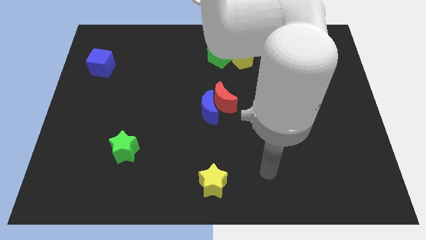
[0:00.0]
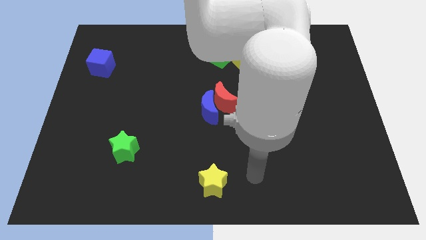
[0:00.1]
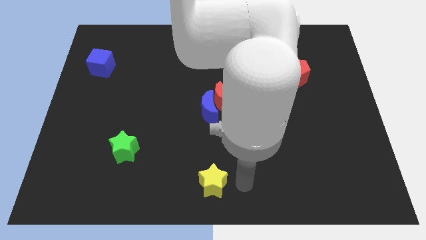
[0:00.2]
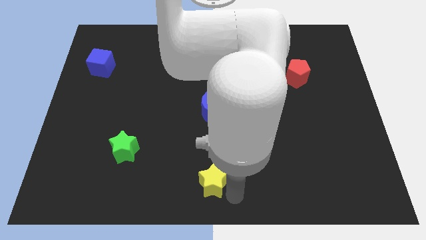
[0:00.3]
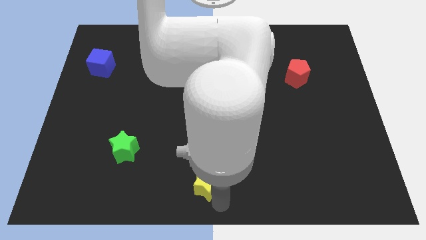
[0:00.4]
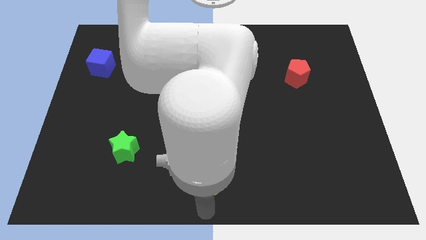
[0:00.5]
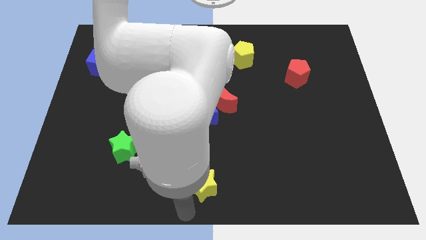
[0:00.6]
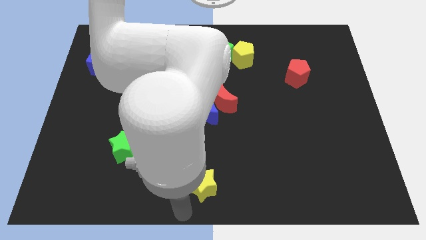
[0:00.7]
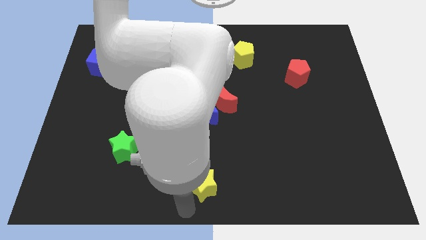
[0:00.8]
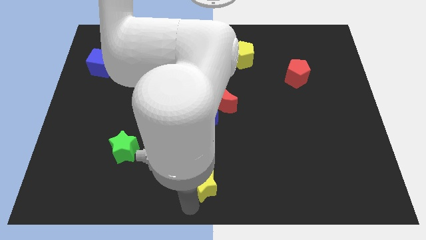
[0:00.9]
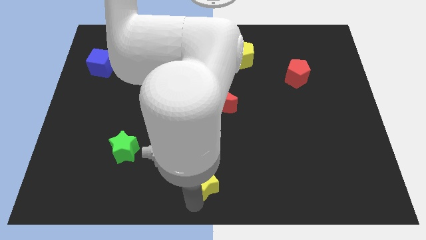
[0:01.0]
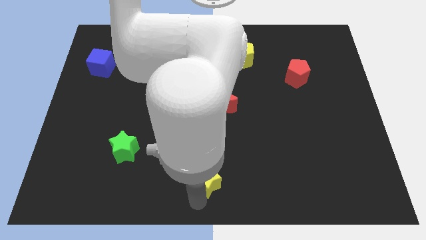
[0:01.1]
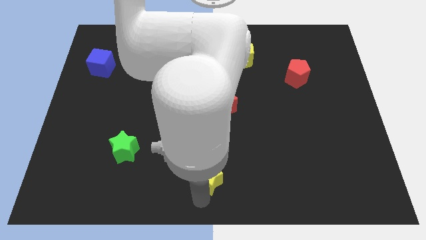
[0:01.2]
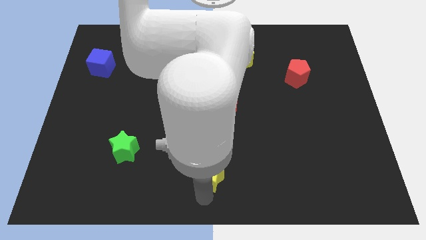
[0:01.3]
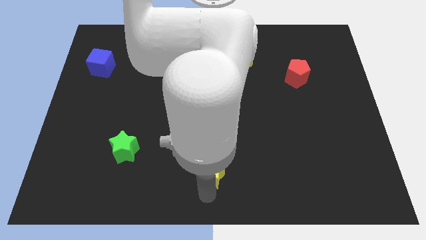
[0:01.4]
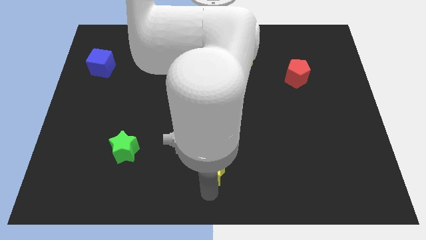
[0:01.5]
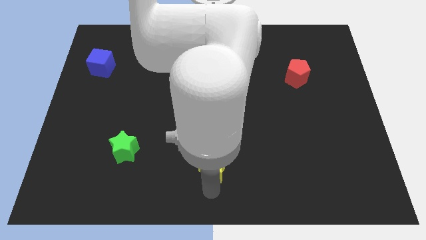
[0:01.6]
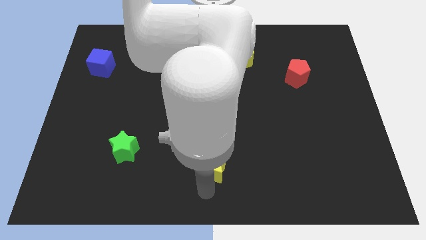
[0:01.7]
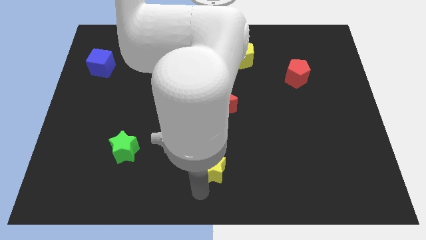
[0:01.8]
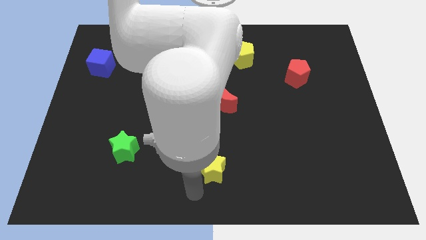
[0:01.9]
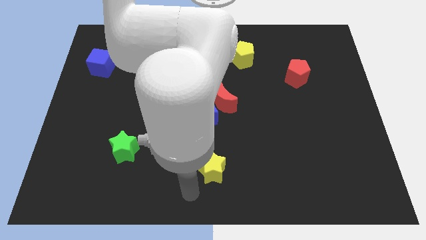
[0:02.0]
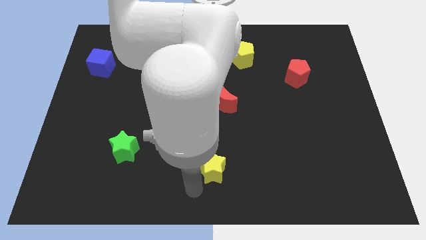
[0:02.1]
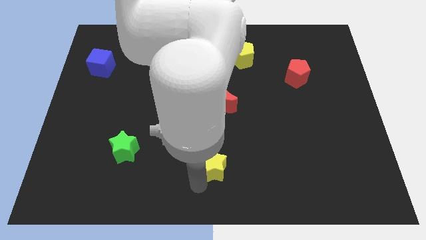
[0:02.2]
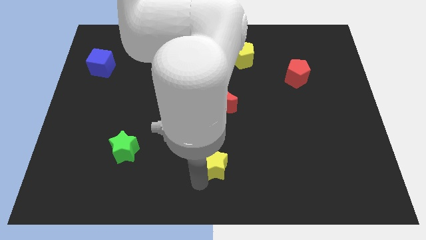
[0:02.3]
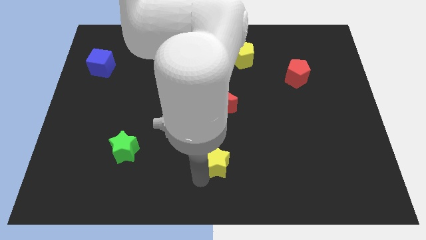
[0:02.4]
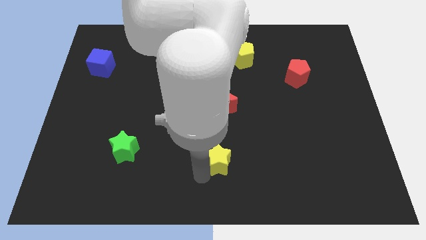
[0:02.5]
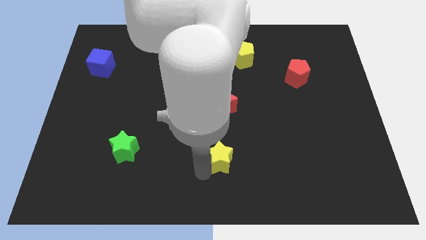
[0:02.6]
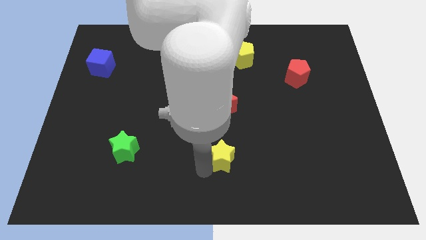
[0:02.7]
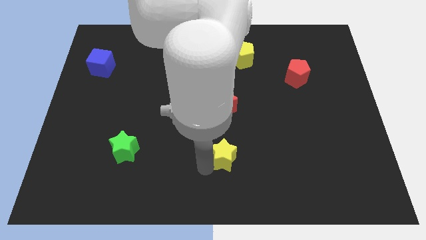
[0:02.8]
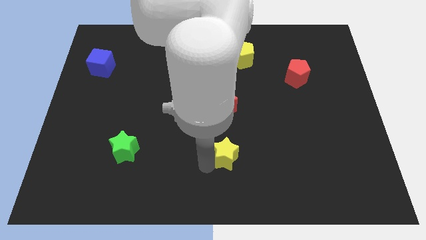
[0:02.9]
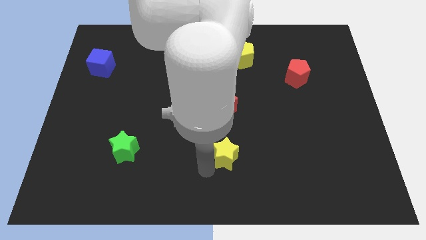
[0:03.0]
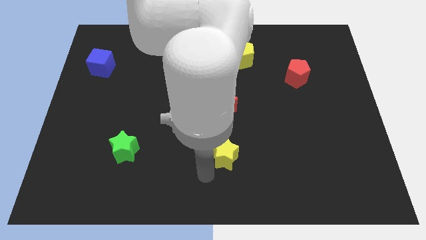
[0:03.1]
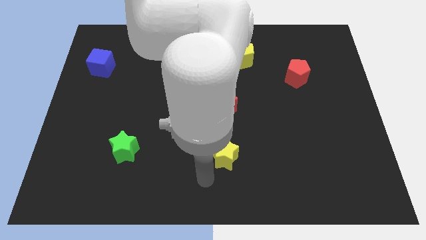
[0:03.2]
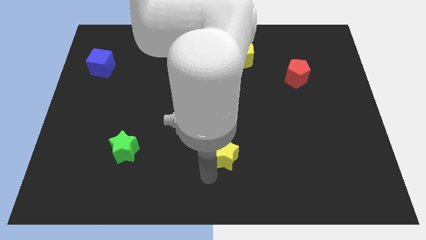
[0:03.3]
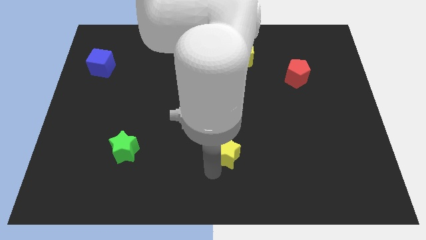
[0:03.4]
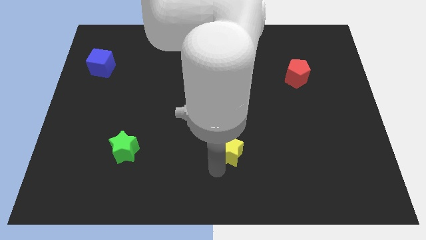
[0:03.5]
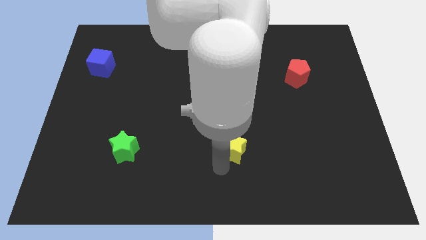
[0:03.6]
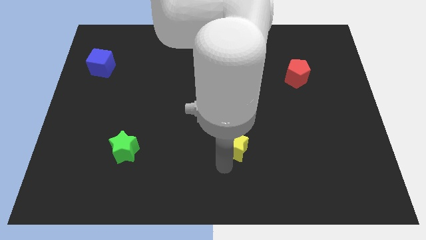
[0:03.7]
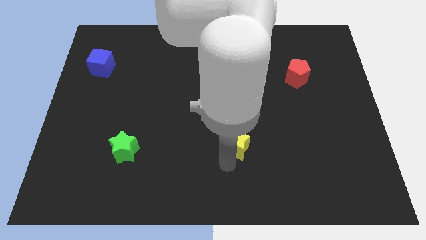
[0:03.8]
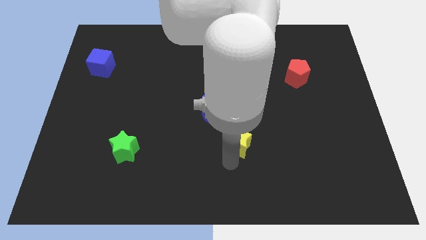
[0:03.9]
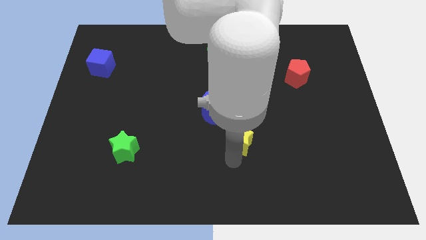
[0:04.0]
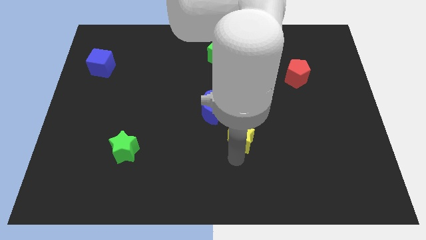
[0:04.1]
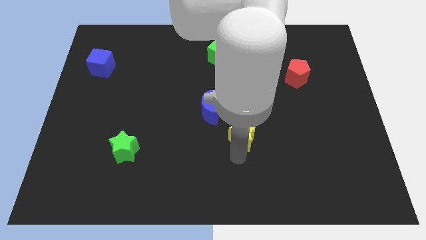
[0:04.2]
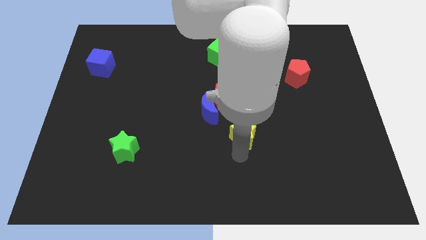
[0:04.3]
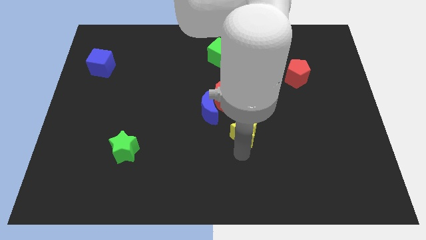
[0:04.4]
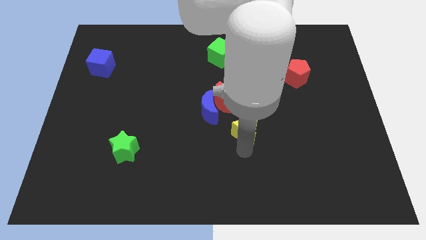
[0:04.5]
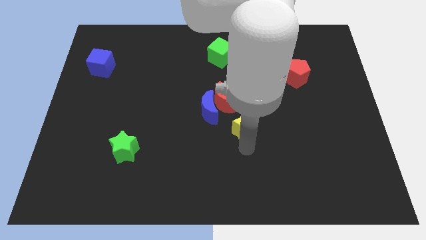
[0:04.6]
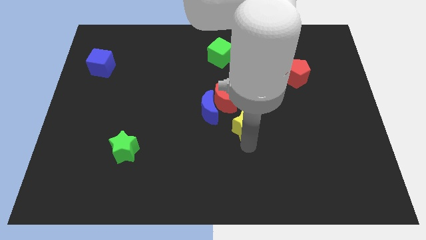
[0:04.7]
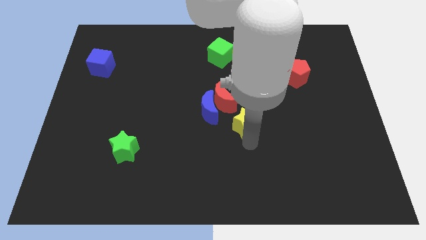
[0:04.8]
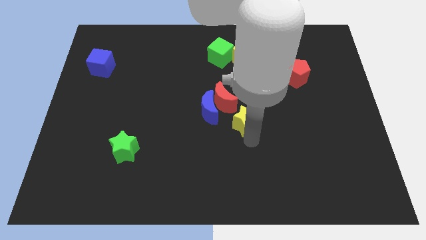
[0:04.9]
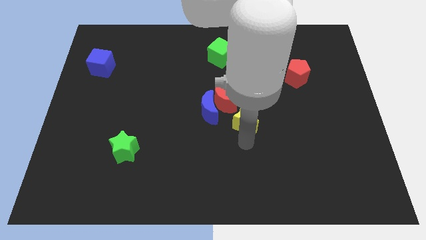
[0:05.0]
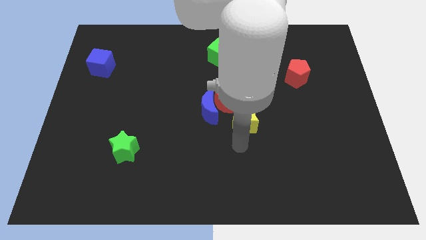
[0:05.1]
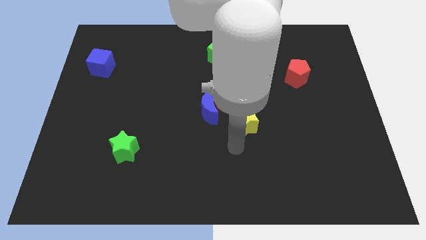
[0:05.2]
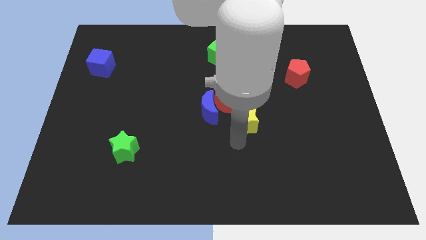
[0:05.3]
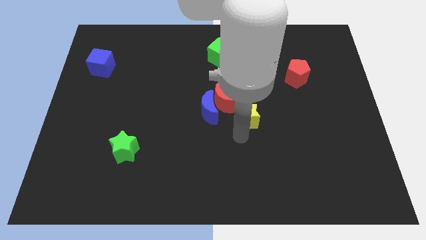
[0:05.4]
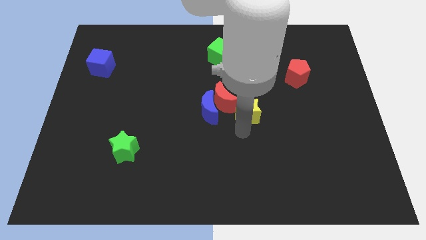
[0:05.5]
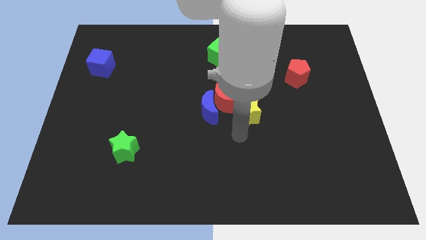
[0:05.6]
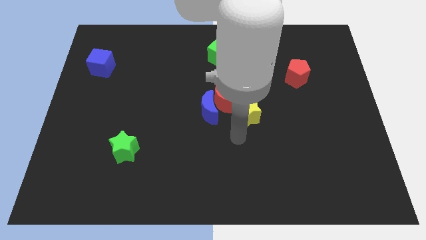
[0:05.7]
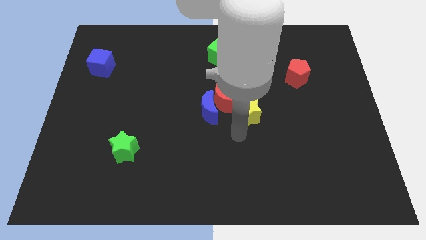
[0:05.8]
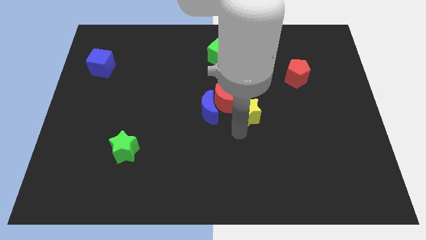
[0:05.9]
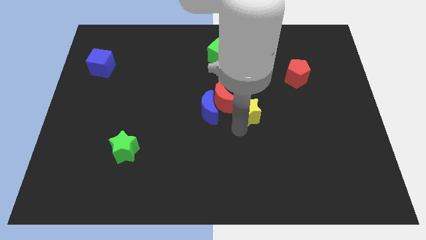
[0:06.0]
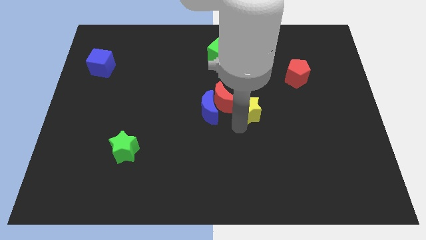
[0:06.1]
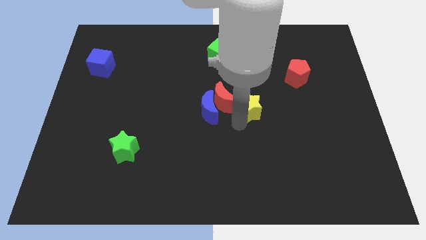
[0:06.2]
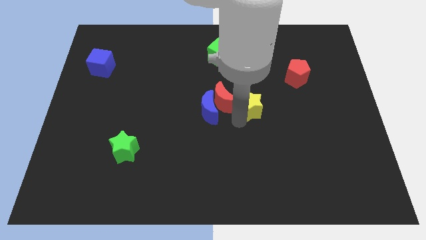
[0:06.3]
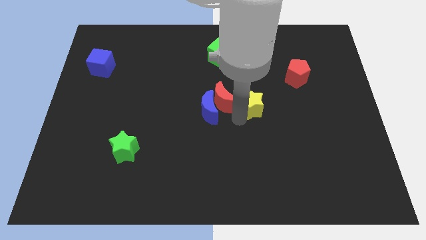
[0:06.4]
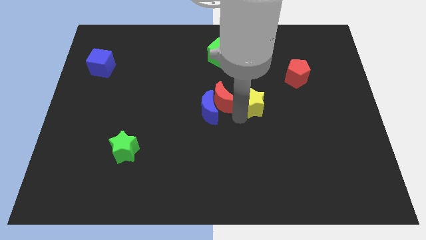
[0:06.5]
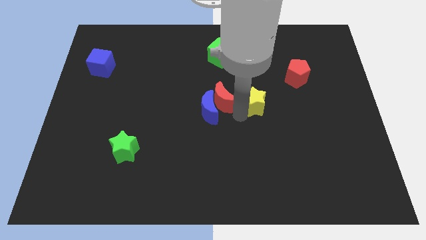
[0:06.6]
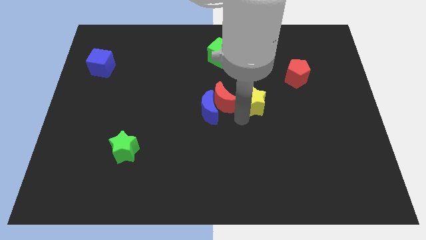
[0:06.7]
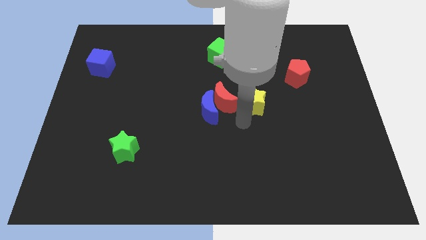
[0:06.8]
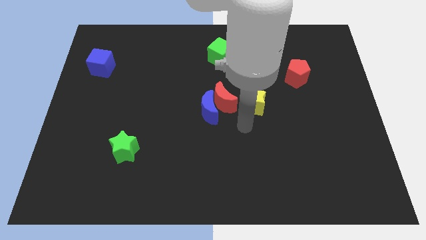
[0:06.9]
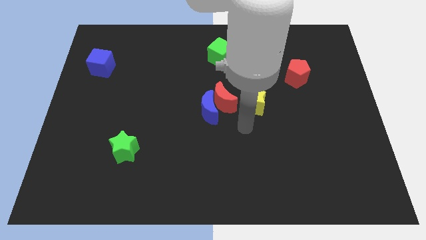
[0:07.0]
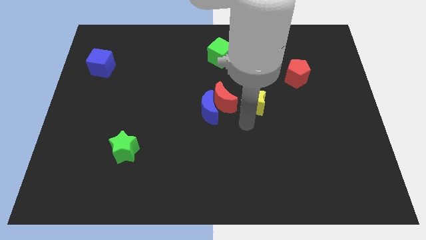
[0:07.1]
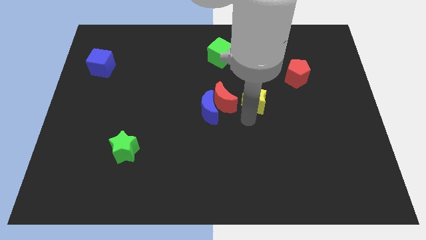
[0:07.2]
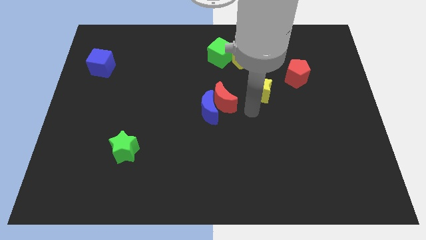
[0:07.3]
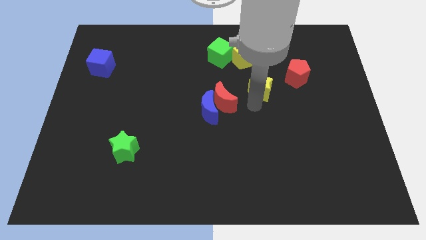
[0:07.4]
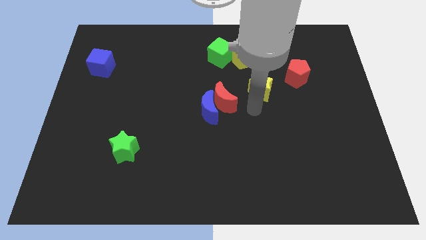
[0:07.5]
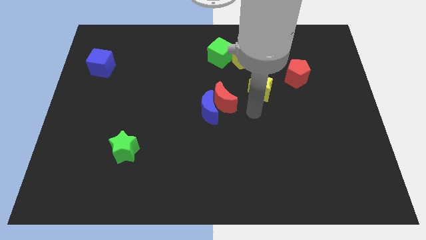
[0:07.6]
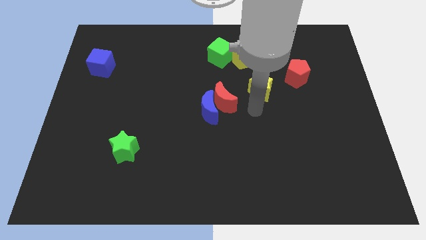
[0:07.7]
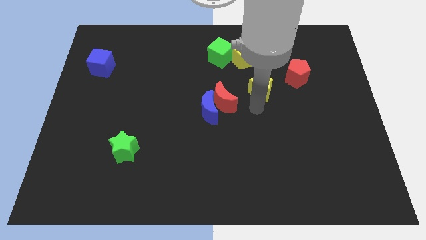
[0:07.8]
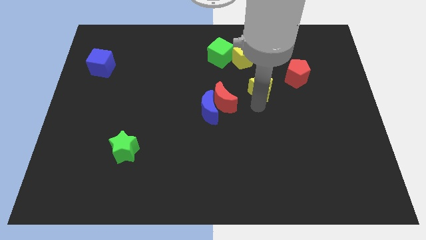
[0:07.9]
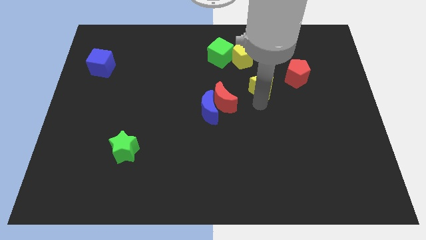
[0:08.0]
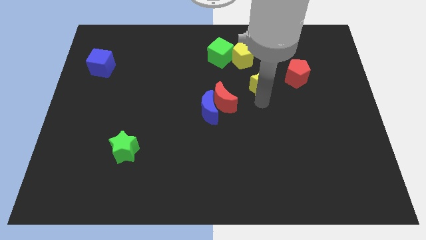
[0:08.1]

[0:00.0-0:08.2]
move the yellow star to the bottom right of the yellow pentagon
